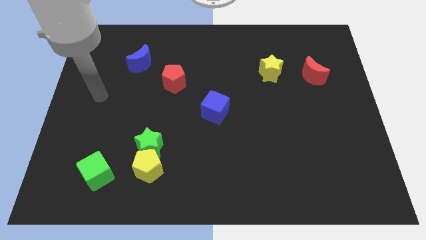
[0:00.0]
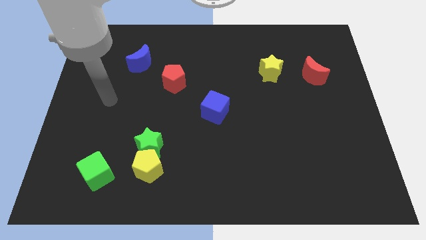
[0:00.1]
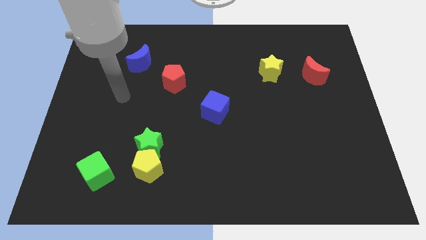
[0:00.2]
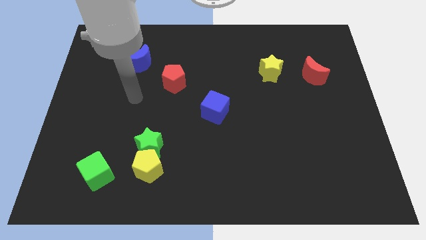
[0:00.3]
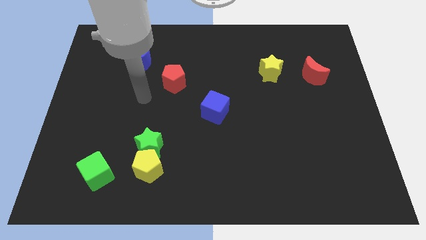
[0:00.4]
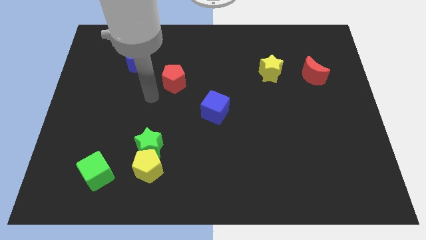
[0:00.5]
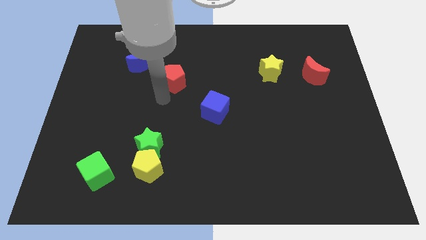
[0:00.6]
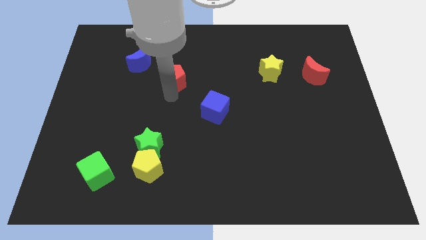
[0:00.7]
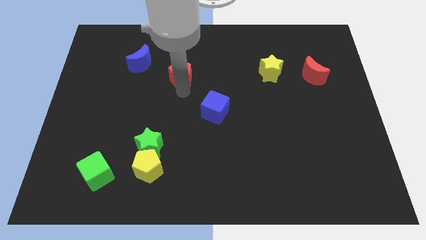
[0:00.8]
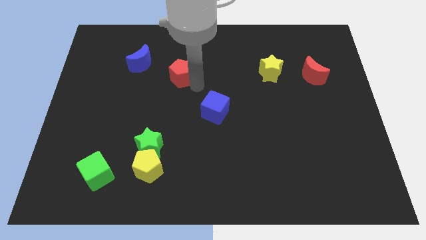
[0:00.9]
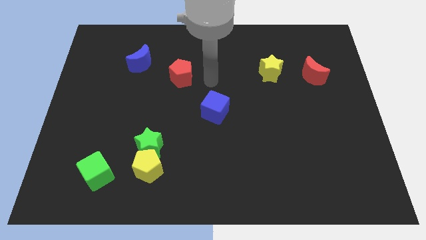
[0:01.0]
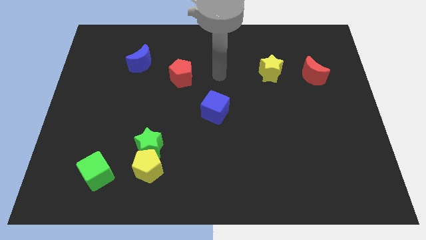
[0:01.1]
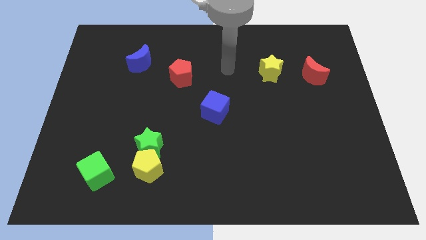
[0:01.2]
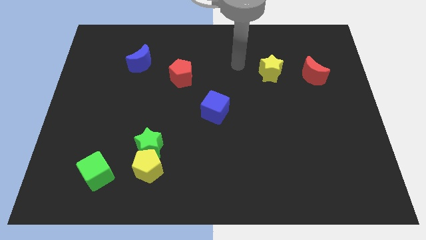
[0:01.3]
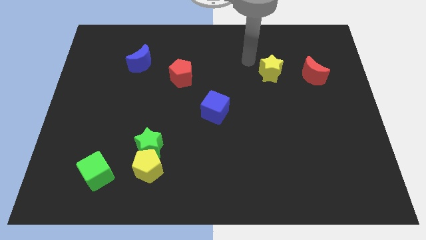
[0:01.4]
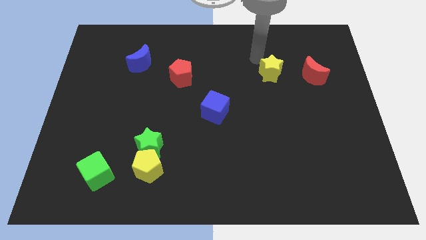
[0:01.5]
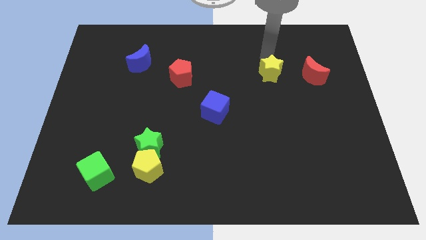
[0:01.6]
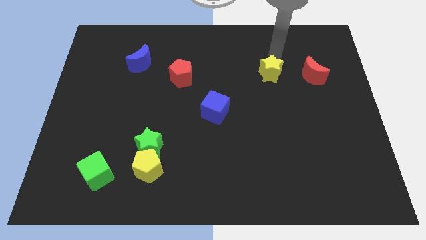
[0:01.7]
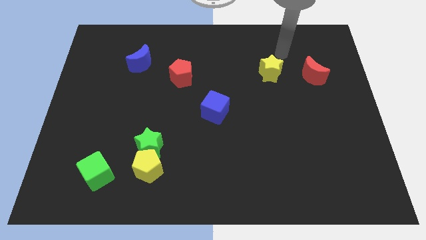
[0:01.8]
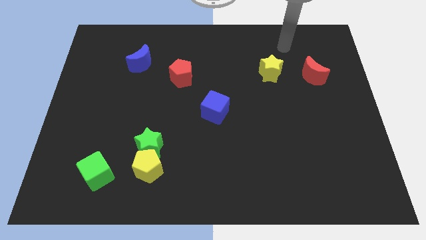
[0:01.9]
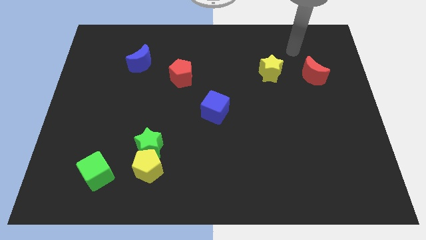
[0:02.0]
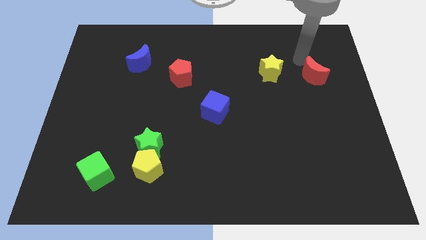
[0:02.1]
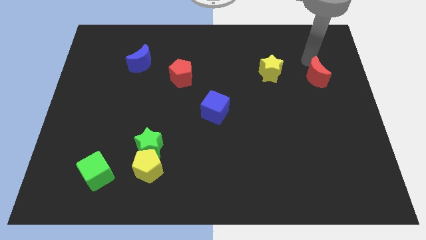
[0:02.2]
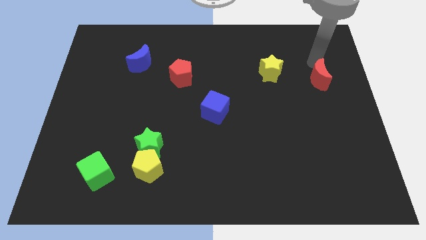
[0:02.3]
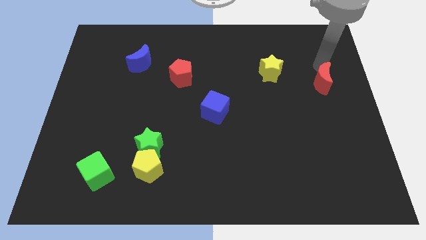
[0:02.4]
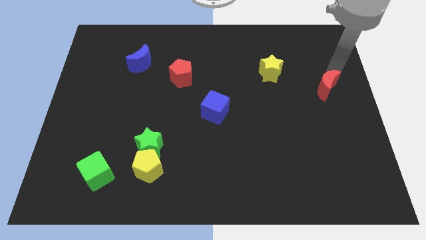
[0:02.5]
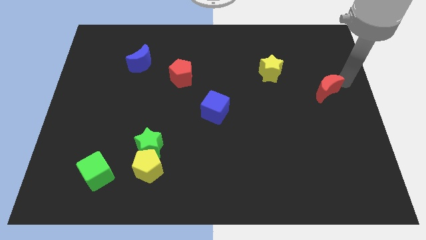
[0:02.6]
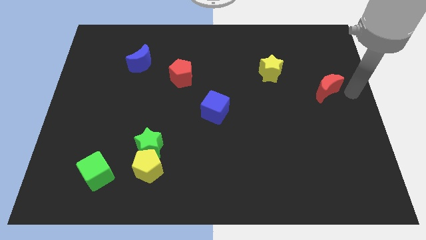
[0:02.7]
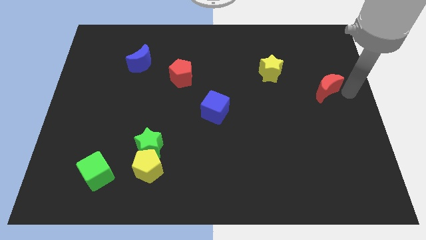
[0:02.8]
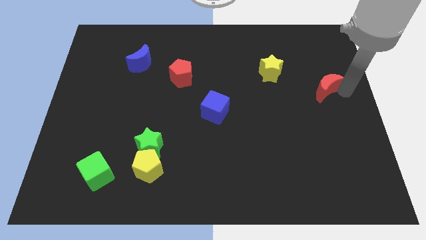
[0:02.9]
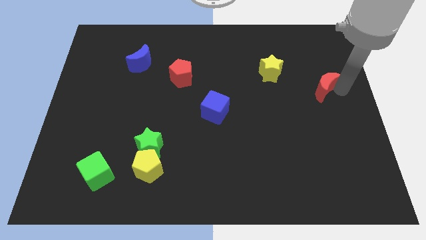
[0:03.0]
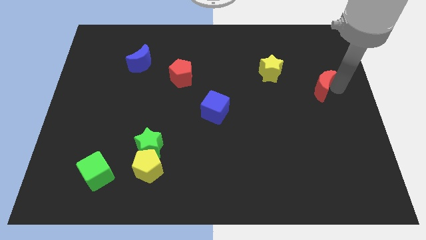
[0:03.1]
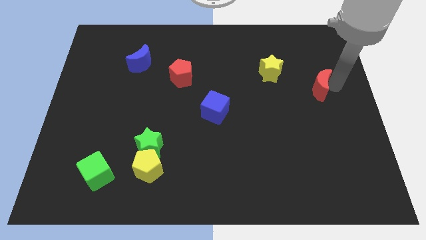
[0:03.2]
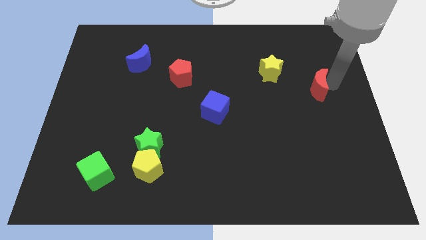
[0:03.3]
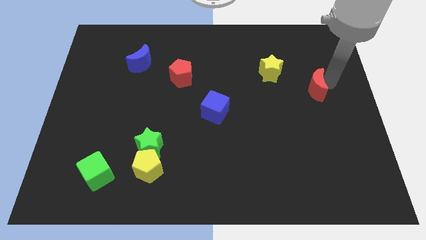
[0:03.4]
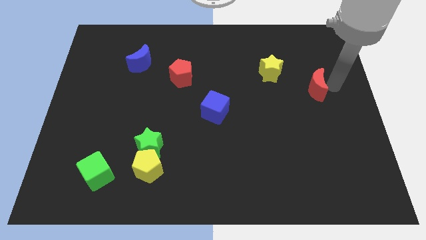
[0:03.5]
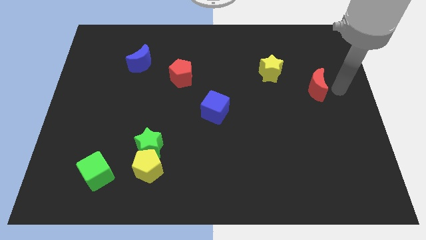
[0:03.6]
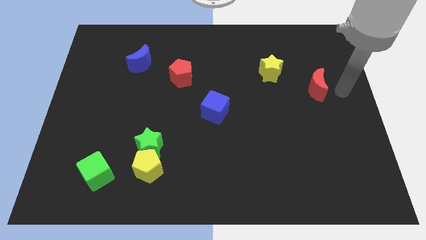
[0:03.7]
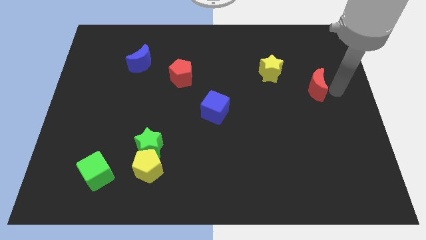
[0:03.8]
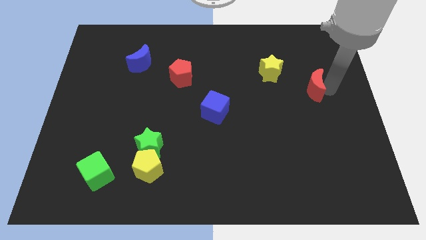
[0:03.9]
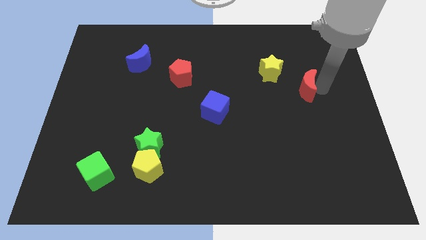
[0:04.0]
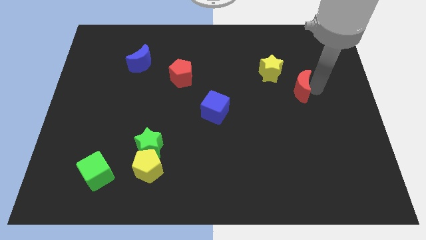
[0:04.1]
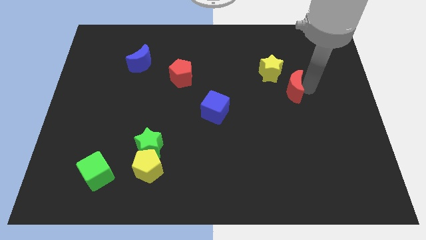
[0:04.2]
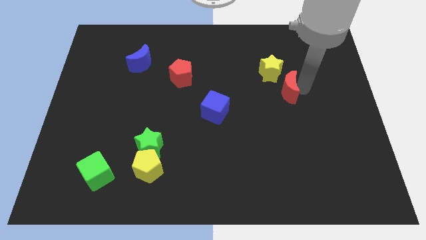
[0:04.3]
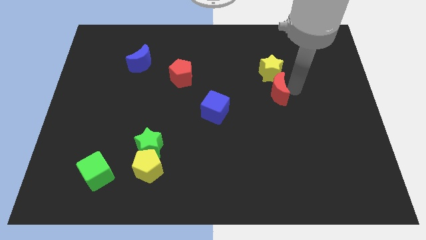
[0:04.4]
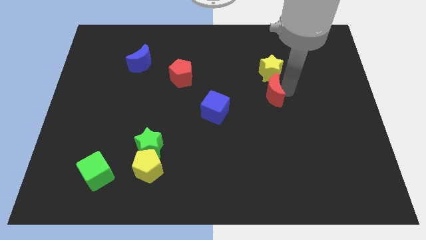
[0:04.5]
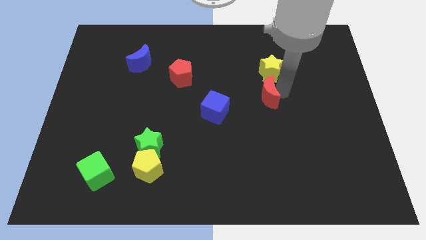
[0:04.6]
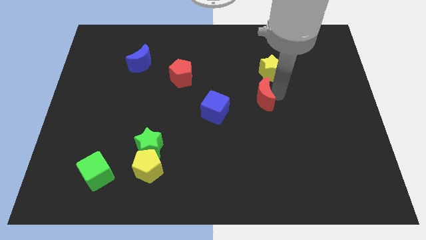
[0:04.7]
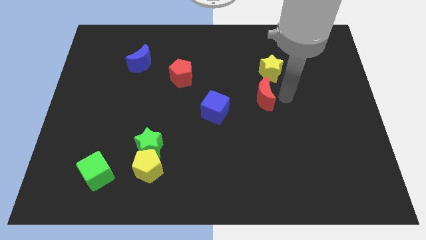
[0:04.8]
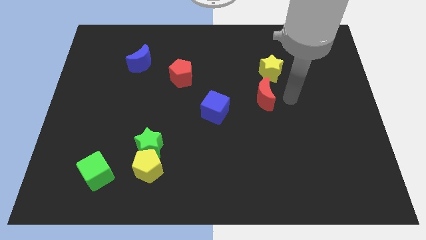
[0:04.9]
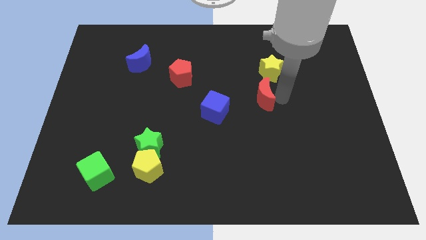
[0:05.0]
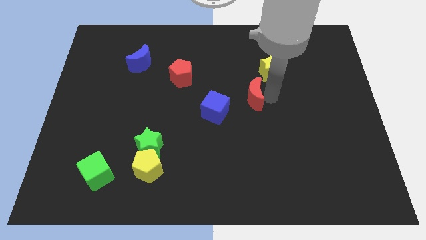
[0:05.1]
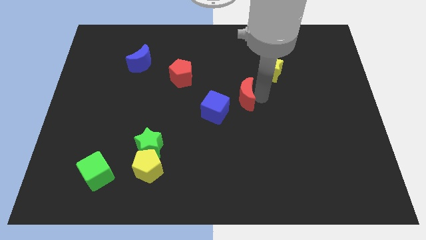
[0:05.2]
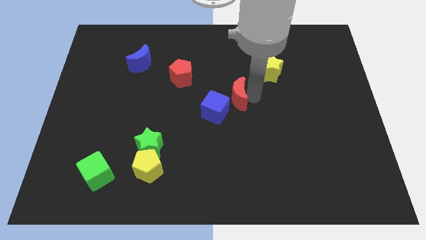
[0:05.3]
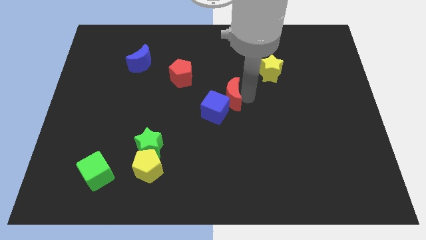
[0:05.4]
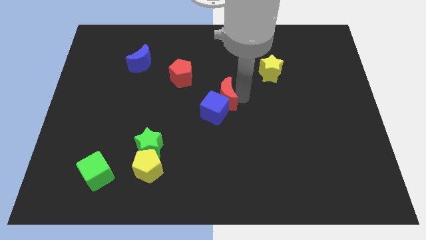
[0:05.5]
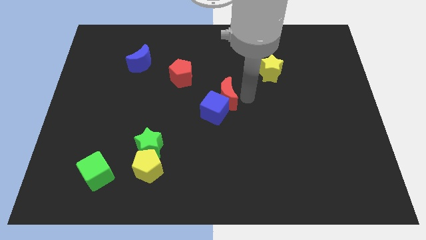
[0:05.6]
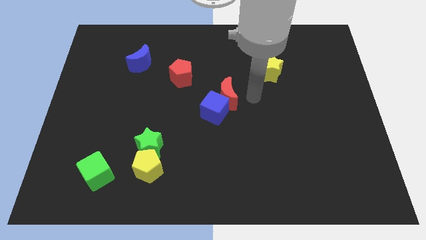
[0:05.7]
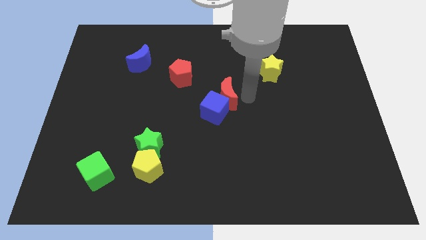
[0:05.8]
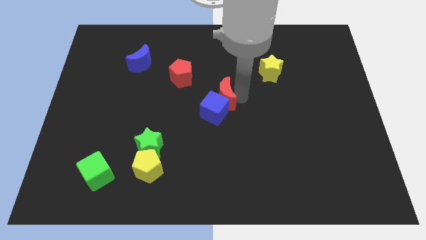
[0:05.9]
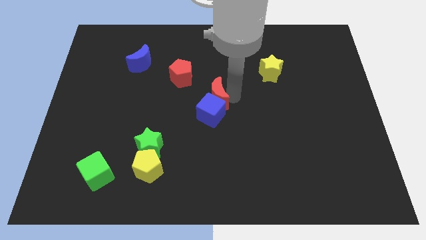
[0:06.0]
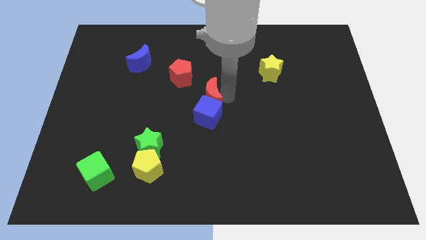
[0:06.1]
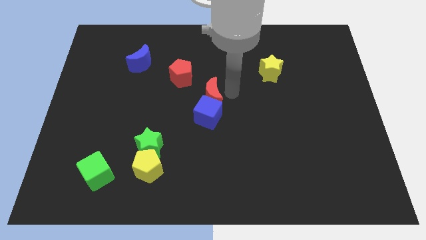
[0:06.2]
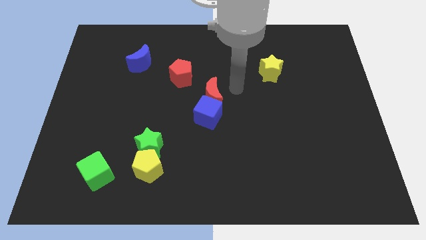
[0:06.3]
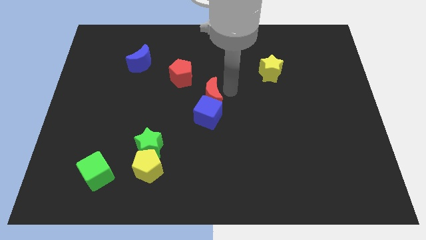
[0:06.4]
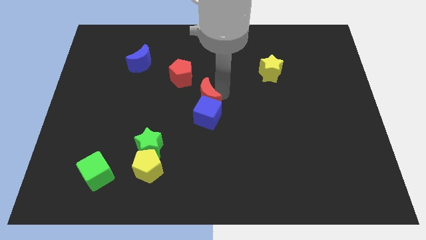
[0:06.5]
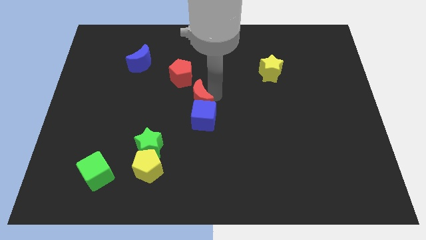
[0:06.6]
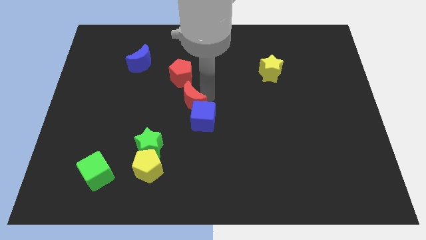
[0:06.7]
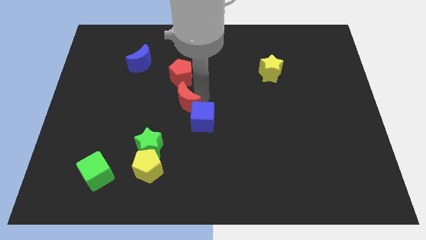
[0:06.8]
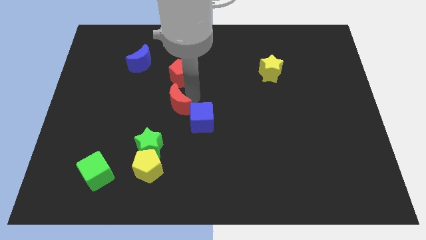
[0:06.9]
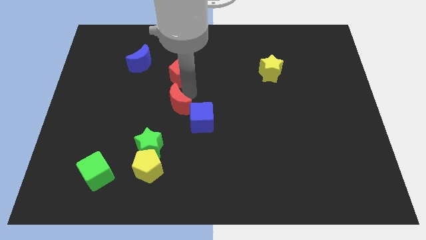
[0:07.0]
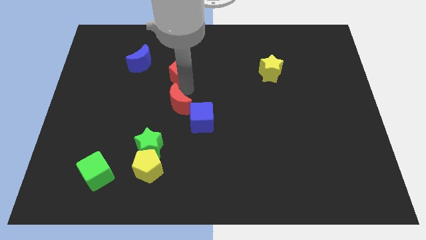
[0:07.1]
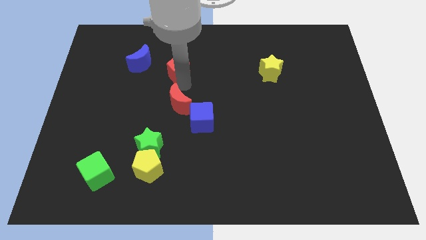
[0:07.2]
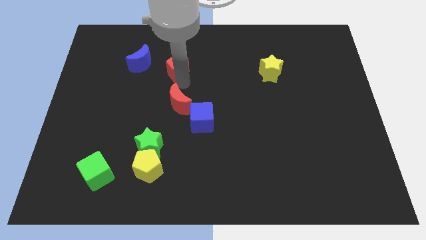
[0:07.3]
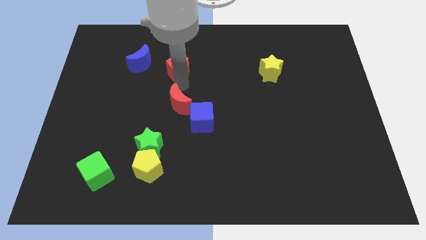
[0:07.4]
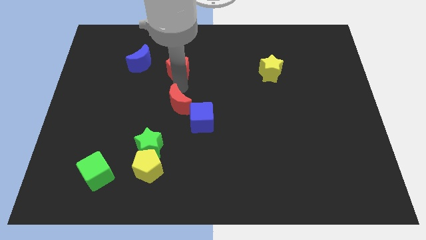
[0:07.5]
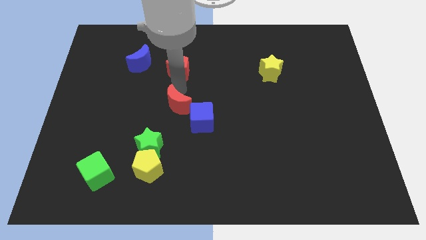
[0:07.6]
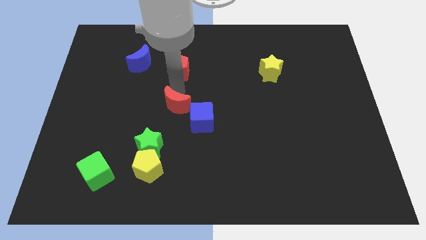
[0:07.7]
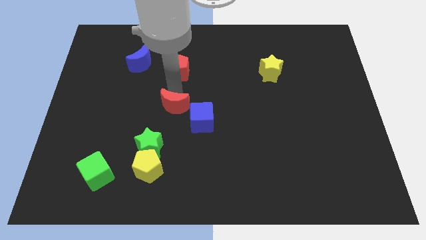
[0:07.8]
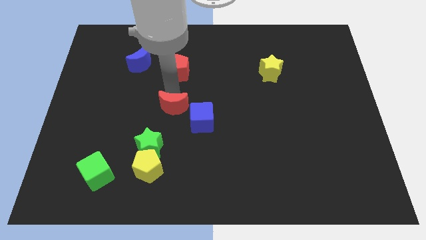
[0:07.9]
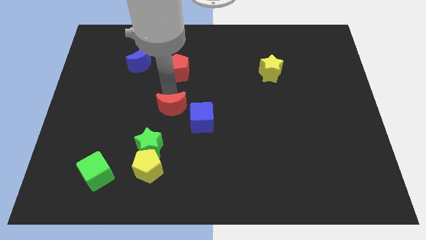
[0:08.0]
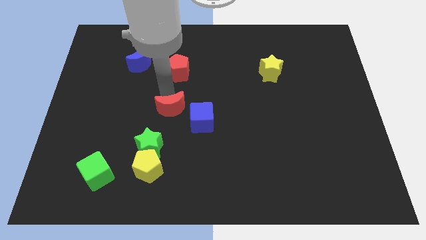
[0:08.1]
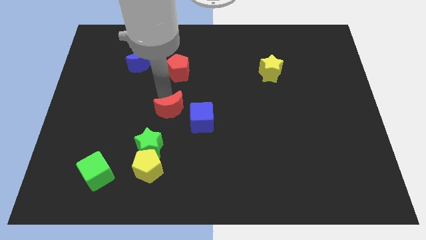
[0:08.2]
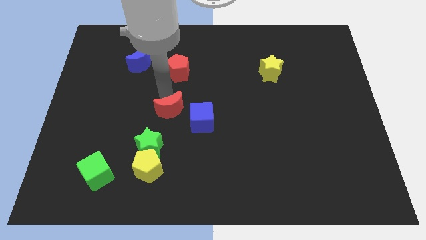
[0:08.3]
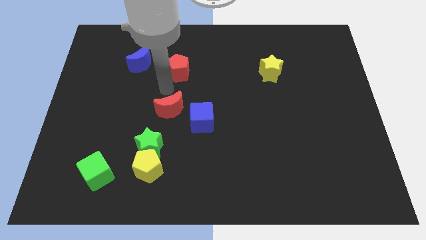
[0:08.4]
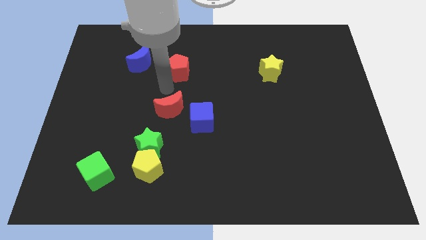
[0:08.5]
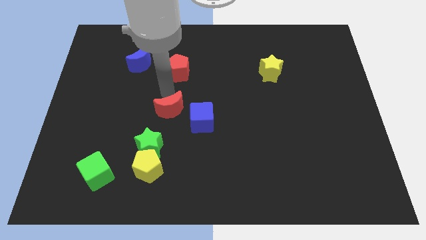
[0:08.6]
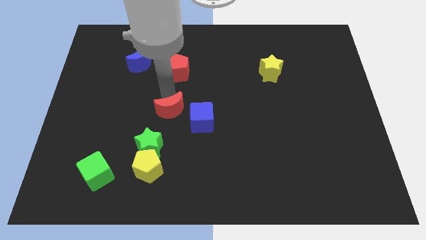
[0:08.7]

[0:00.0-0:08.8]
put the red moon to the top right side of the green star
